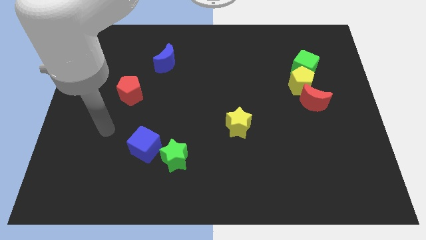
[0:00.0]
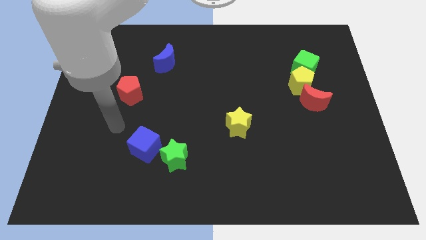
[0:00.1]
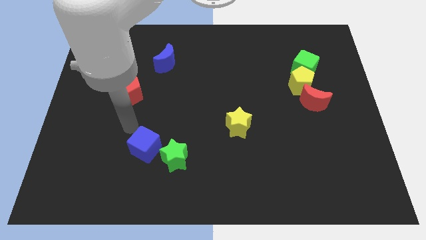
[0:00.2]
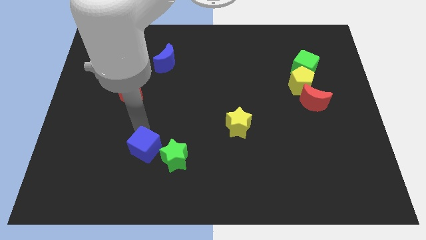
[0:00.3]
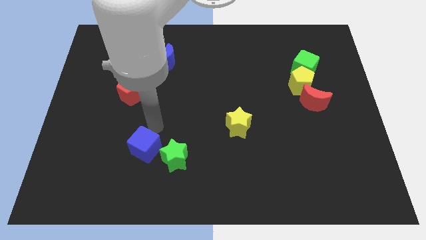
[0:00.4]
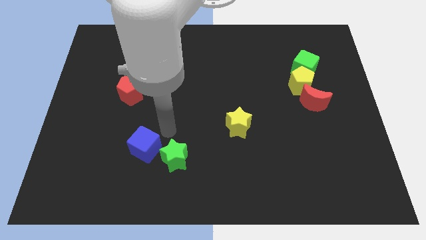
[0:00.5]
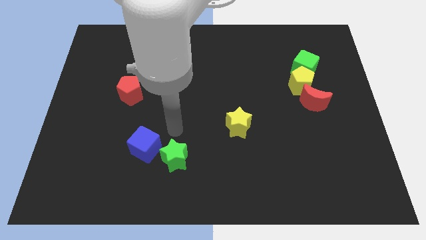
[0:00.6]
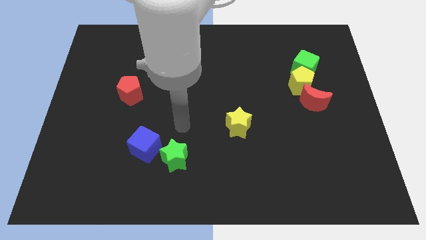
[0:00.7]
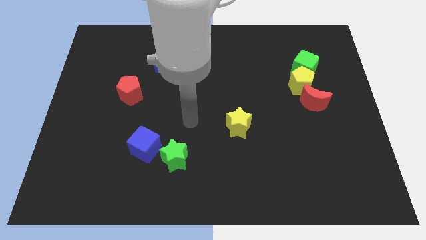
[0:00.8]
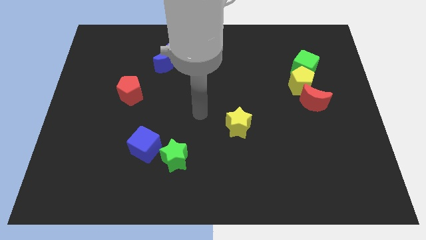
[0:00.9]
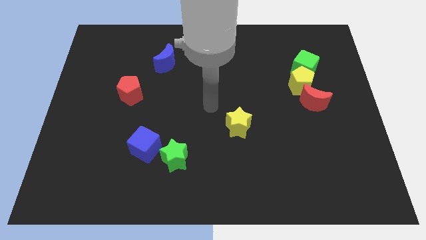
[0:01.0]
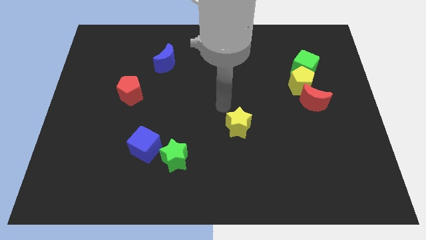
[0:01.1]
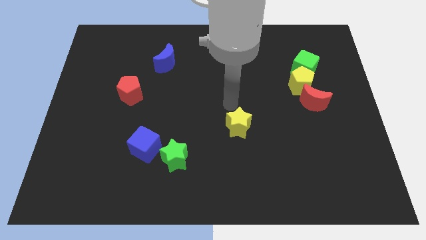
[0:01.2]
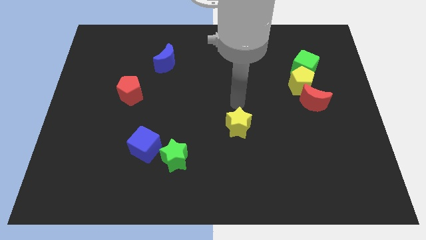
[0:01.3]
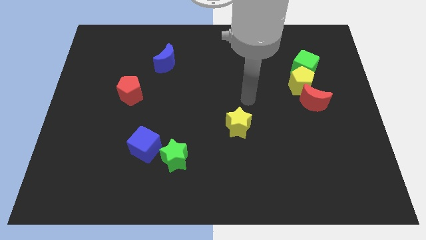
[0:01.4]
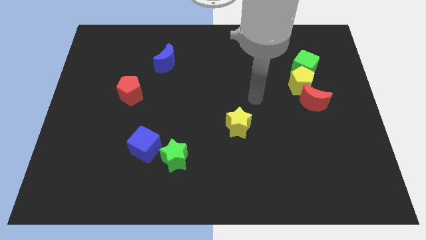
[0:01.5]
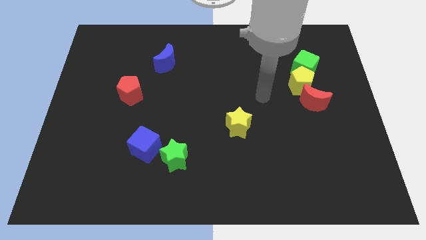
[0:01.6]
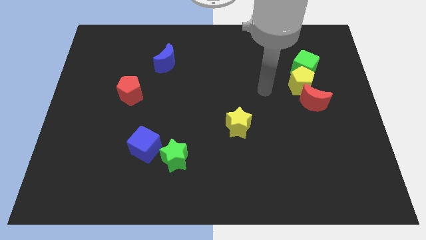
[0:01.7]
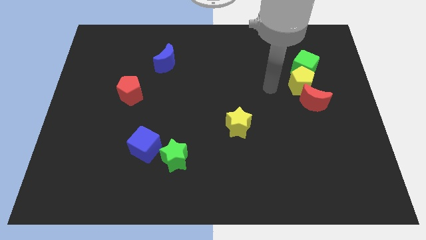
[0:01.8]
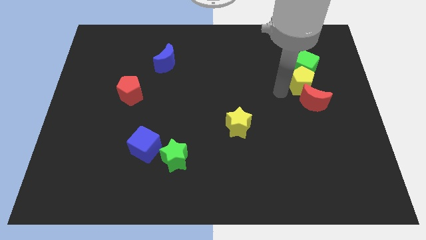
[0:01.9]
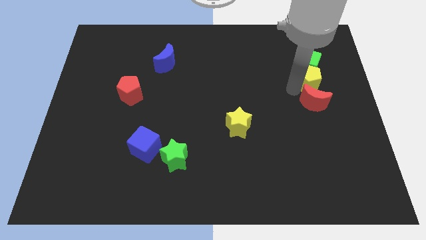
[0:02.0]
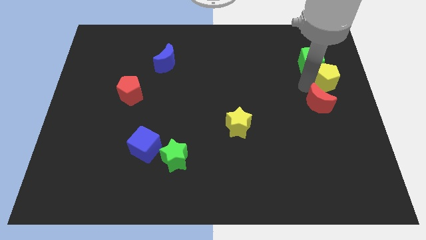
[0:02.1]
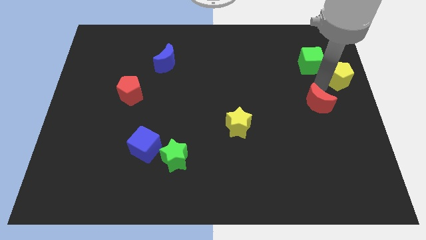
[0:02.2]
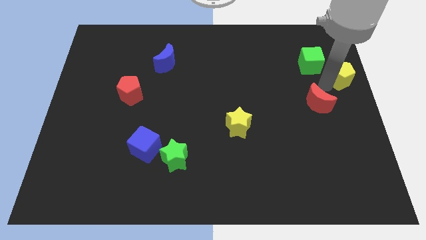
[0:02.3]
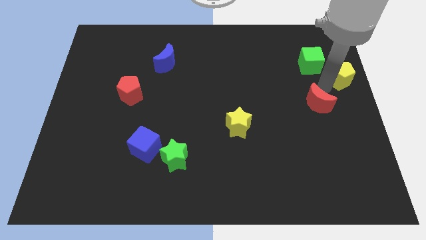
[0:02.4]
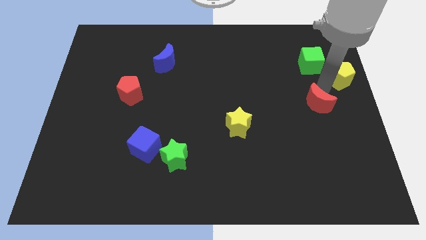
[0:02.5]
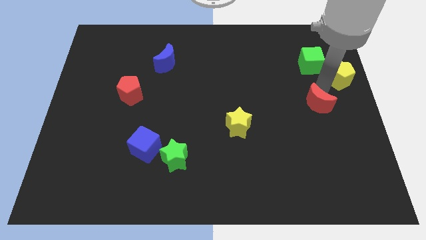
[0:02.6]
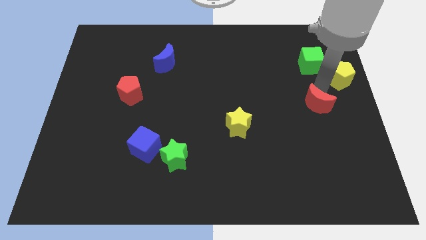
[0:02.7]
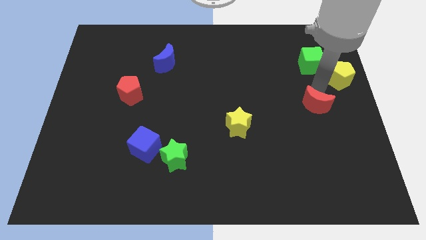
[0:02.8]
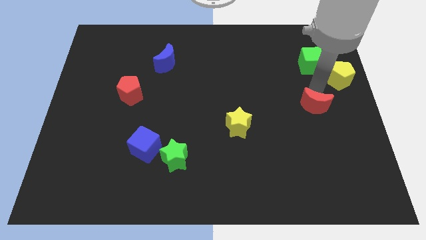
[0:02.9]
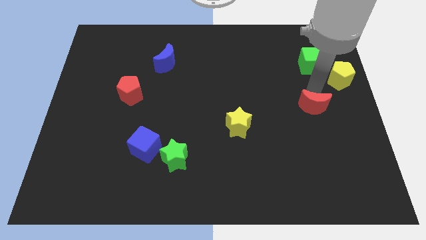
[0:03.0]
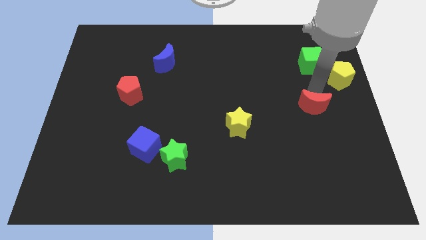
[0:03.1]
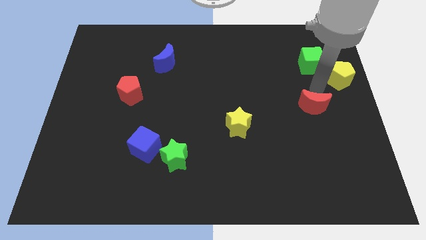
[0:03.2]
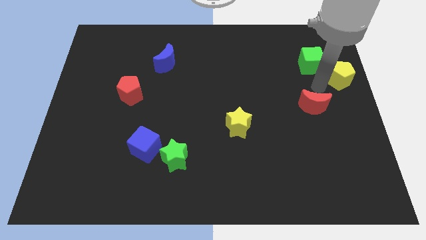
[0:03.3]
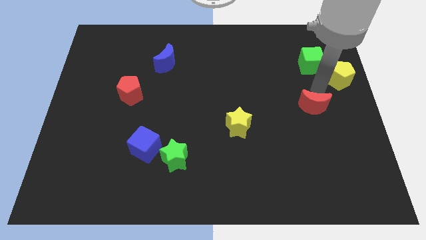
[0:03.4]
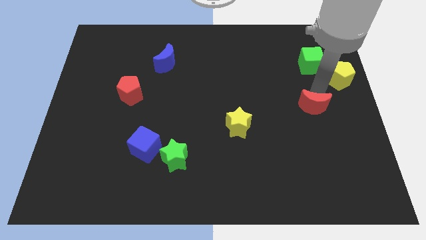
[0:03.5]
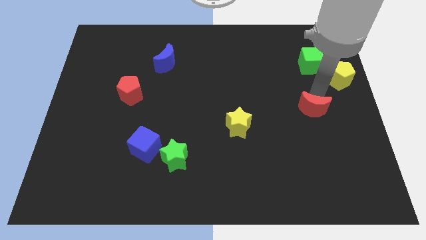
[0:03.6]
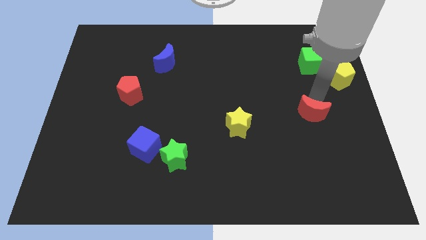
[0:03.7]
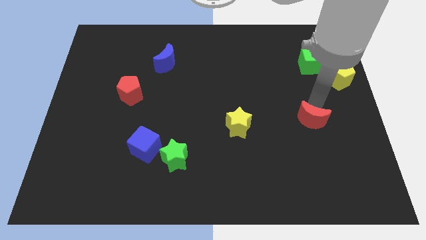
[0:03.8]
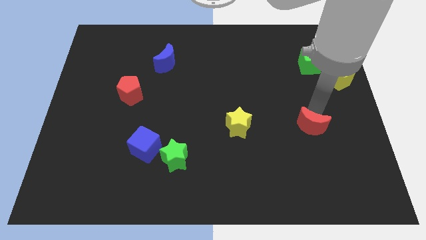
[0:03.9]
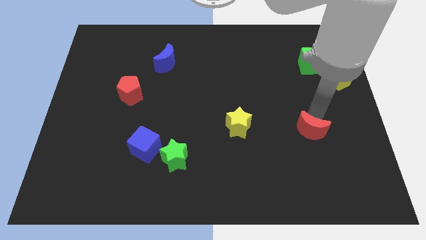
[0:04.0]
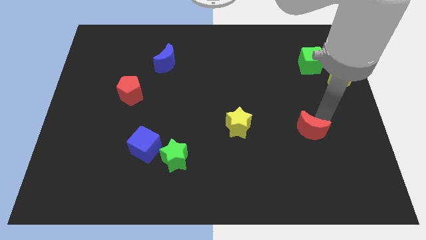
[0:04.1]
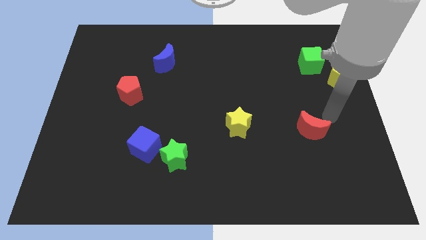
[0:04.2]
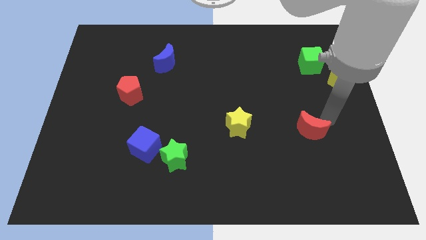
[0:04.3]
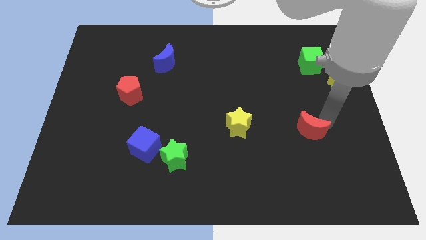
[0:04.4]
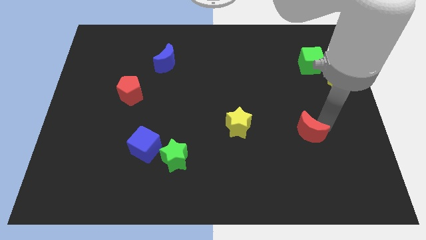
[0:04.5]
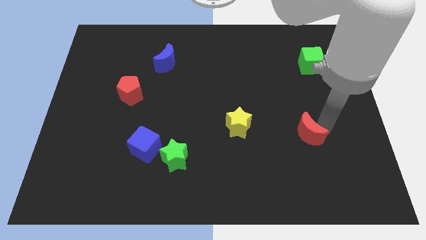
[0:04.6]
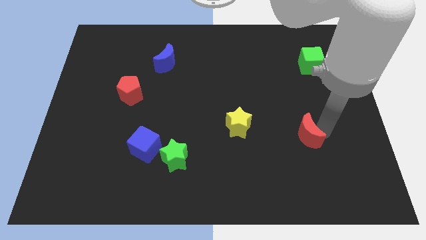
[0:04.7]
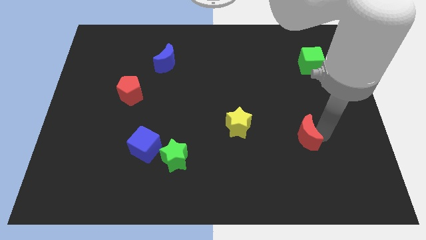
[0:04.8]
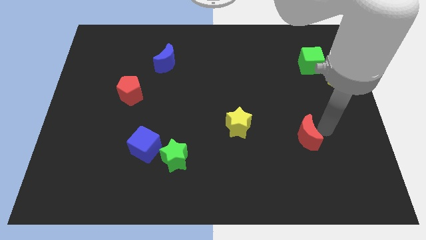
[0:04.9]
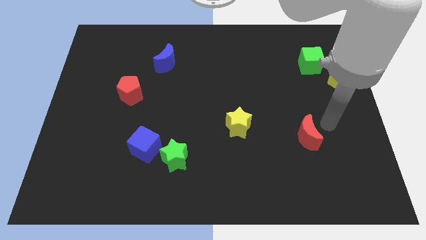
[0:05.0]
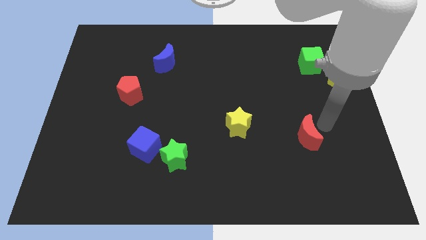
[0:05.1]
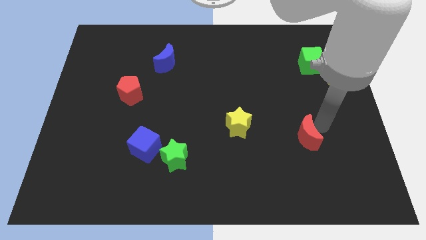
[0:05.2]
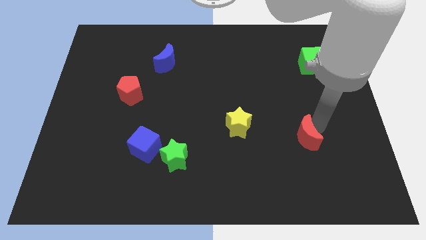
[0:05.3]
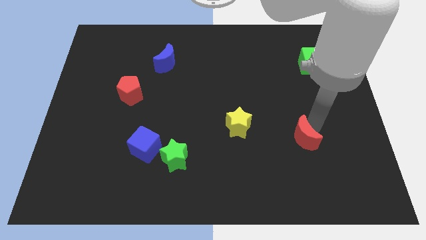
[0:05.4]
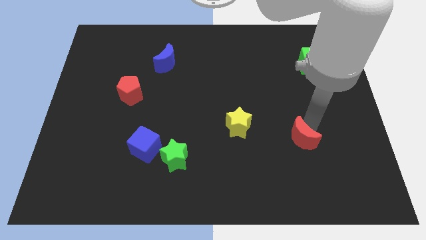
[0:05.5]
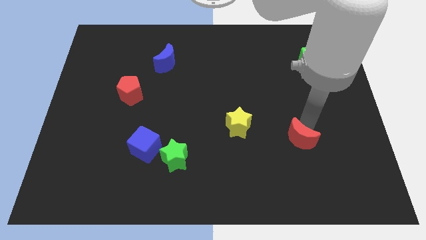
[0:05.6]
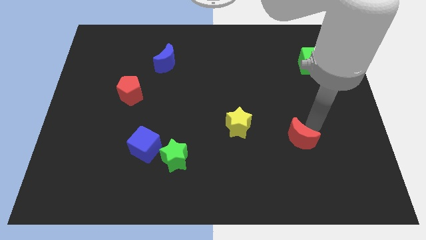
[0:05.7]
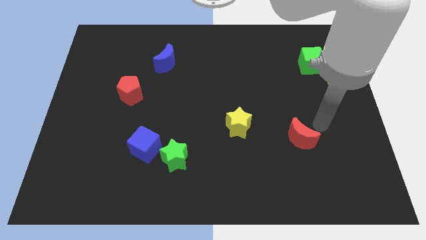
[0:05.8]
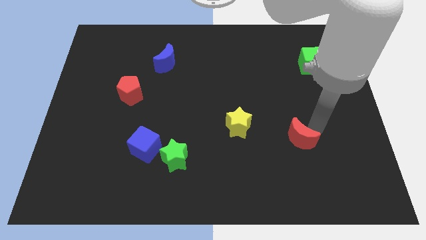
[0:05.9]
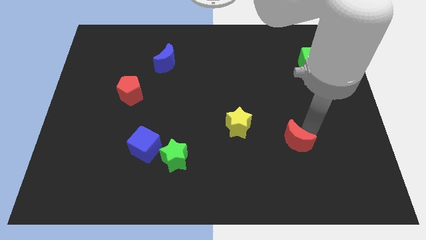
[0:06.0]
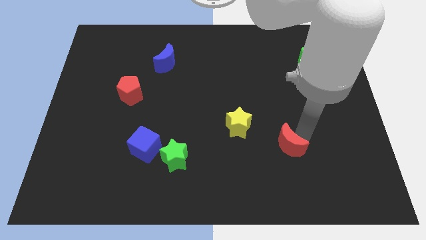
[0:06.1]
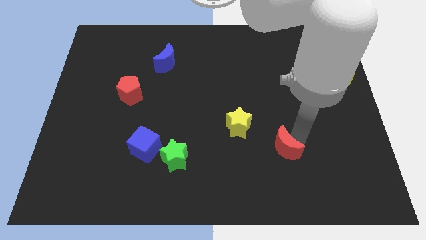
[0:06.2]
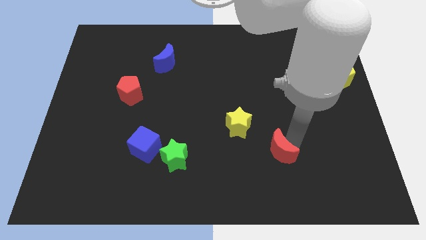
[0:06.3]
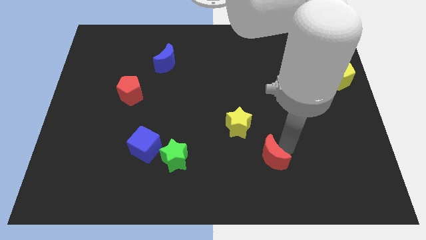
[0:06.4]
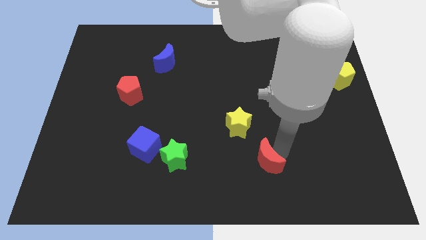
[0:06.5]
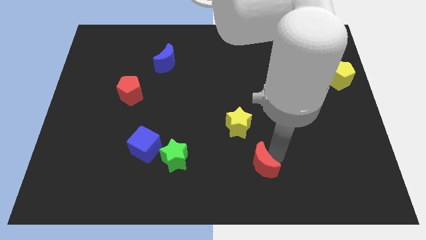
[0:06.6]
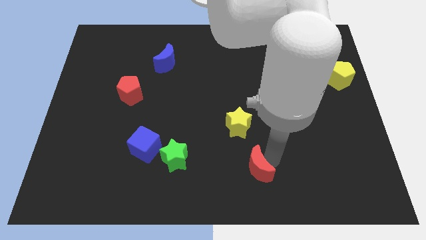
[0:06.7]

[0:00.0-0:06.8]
put the red moon to the bottom side
